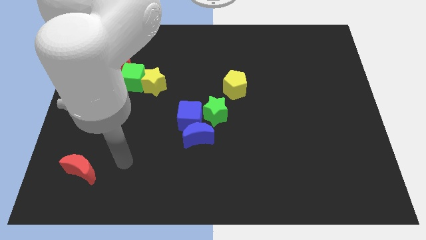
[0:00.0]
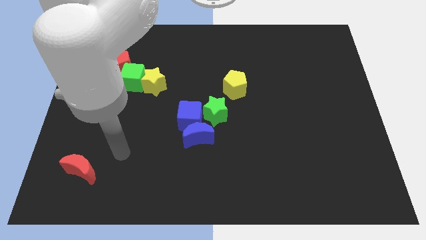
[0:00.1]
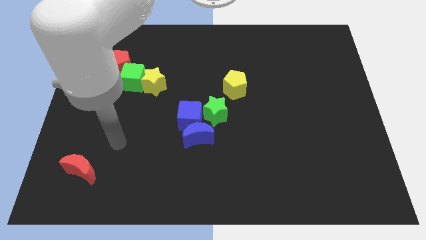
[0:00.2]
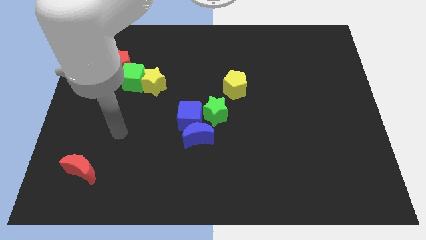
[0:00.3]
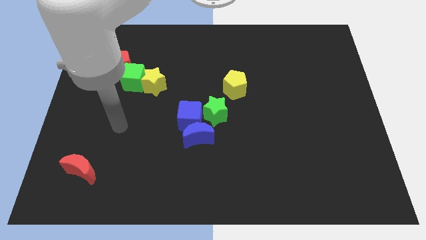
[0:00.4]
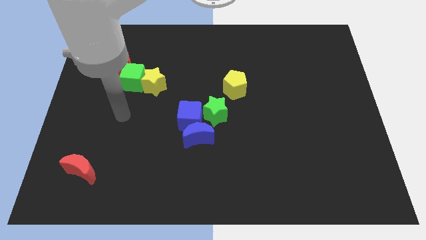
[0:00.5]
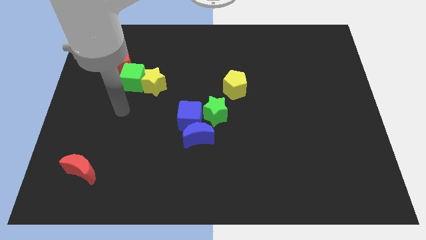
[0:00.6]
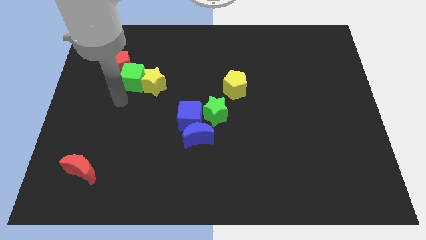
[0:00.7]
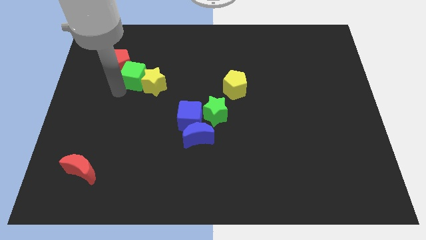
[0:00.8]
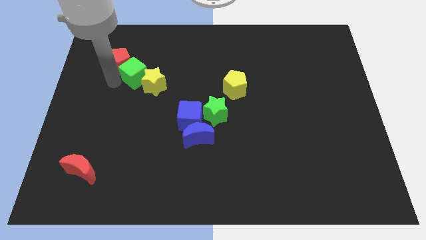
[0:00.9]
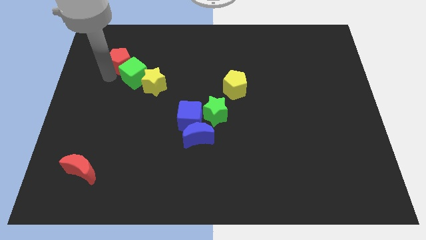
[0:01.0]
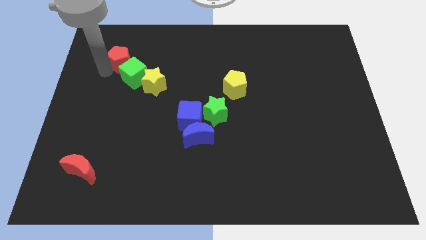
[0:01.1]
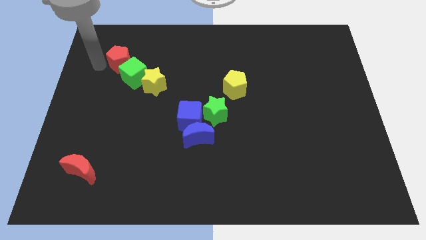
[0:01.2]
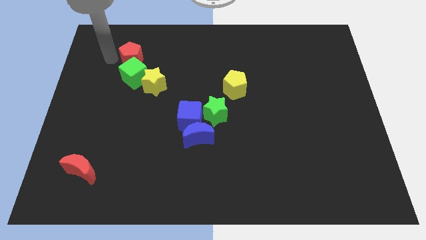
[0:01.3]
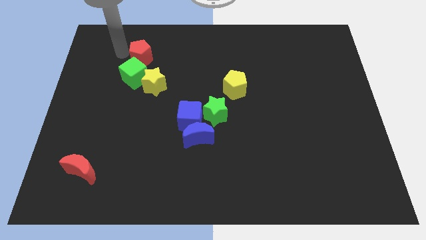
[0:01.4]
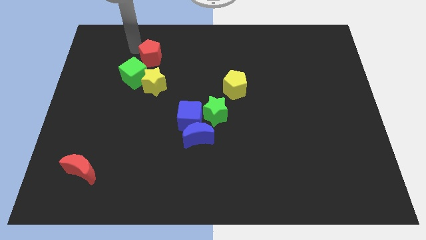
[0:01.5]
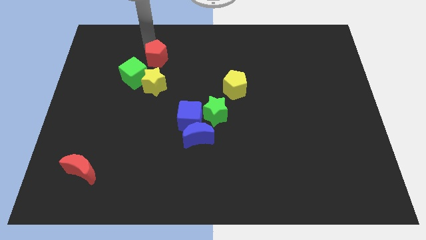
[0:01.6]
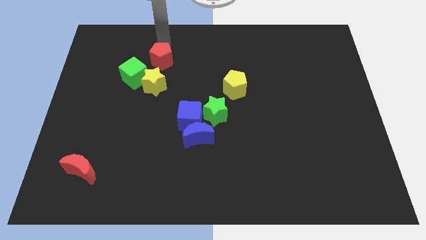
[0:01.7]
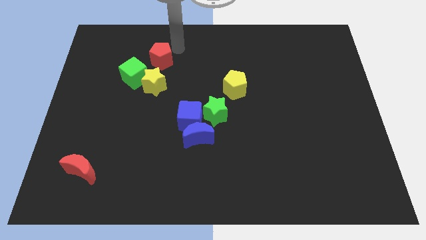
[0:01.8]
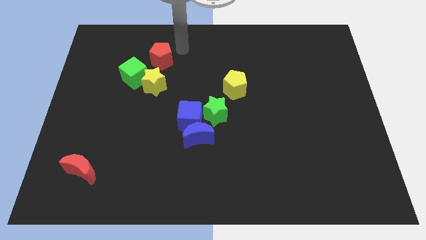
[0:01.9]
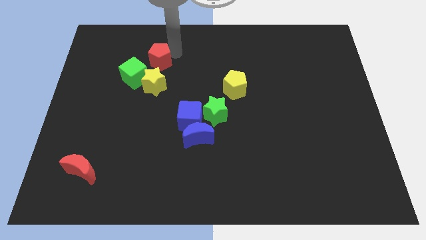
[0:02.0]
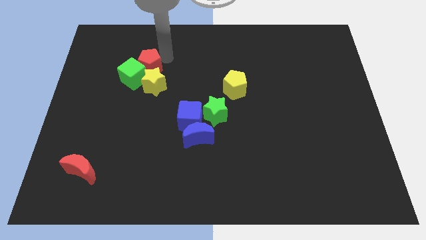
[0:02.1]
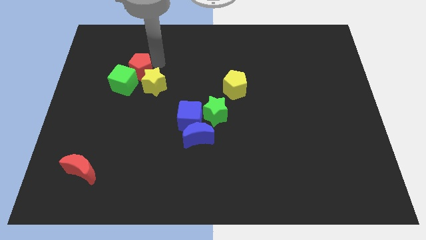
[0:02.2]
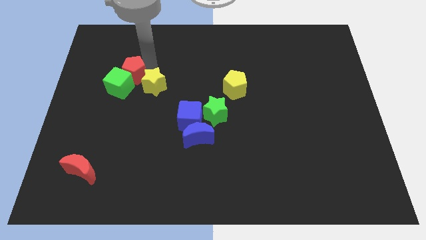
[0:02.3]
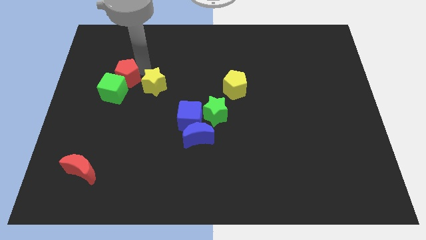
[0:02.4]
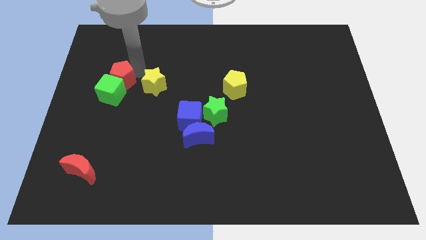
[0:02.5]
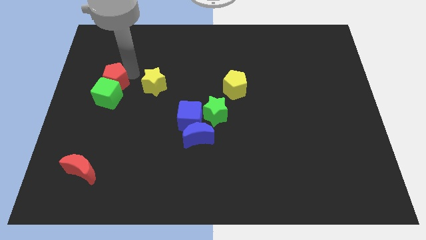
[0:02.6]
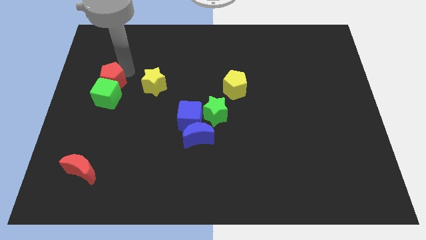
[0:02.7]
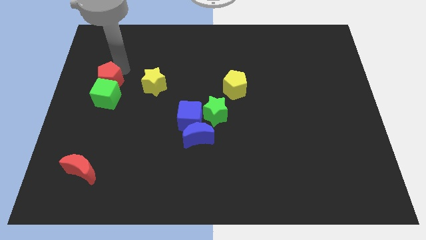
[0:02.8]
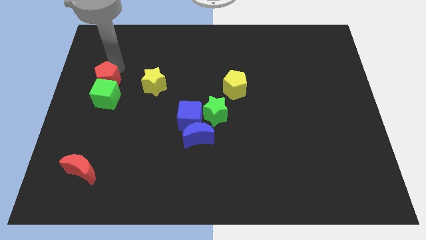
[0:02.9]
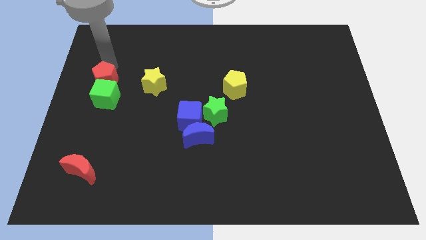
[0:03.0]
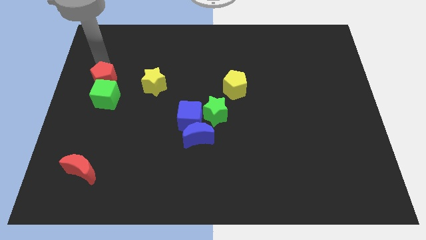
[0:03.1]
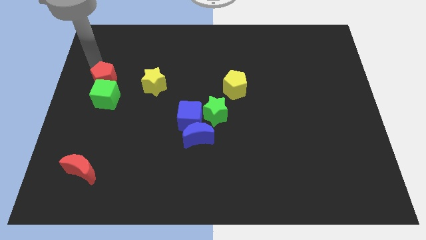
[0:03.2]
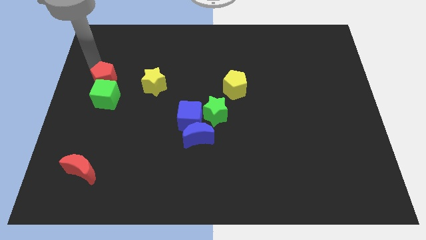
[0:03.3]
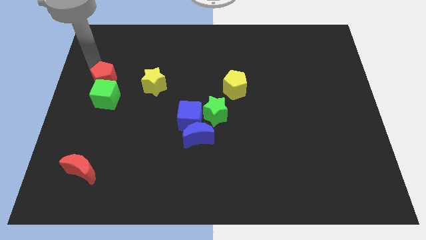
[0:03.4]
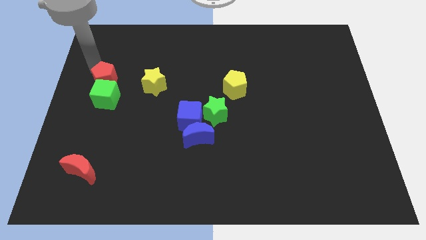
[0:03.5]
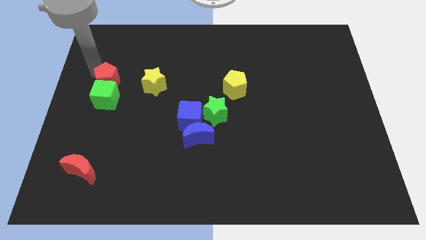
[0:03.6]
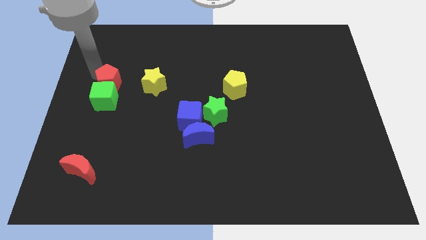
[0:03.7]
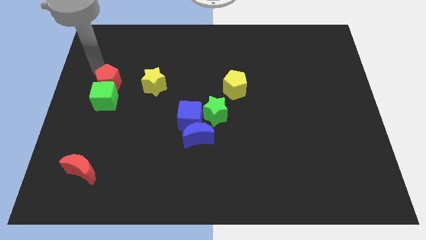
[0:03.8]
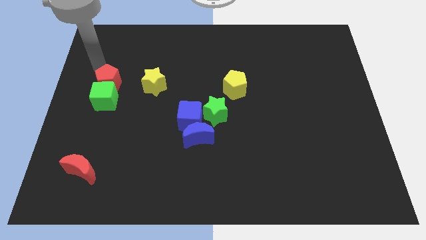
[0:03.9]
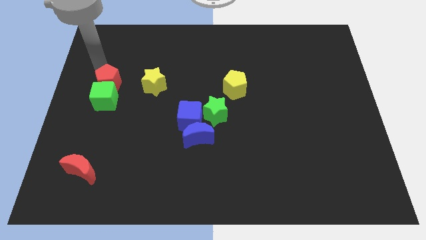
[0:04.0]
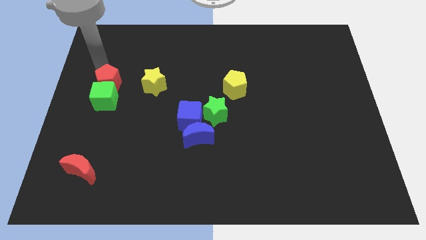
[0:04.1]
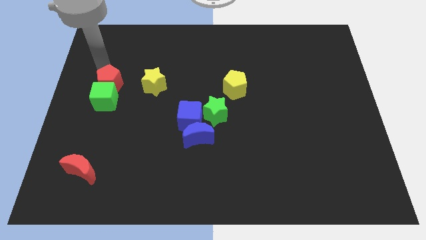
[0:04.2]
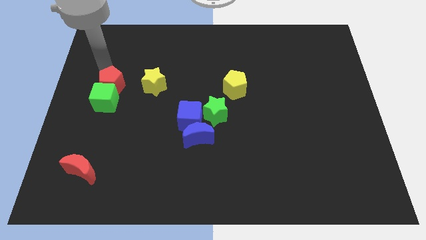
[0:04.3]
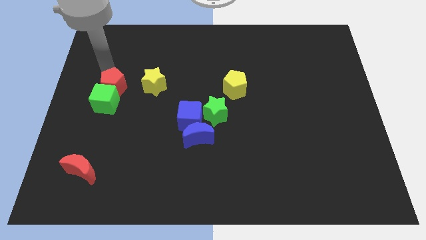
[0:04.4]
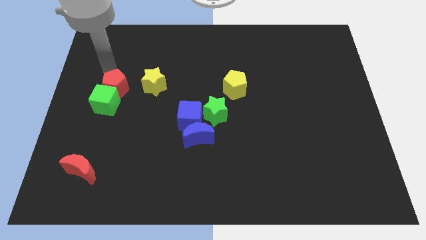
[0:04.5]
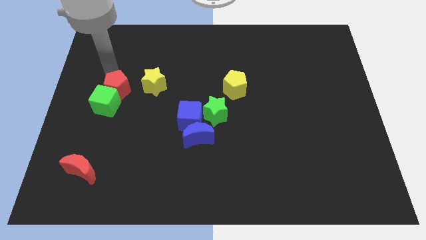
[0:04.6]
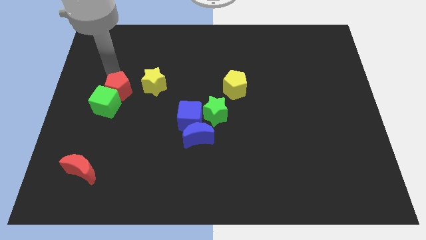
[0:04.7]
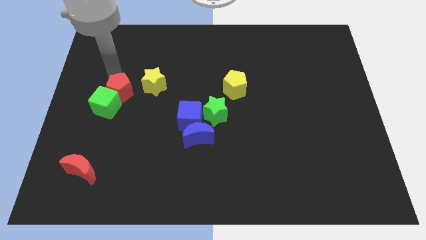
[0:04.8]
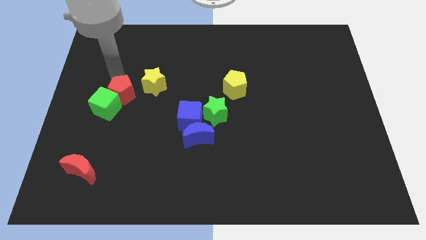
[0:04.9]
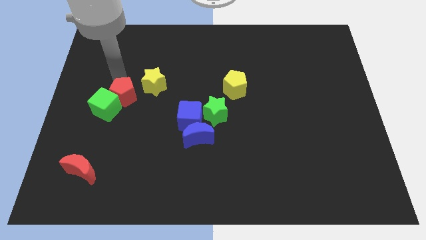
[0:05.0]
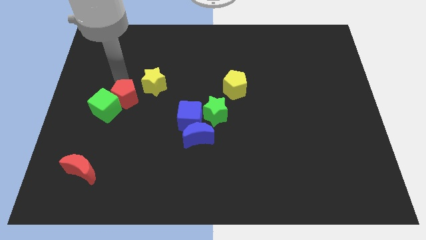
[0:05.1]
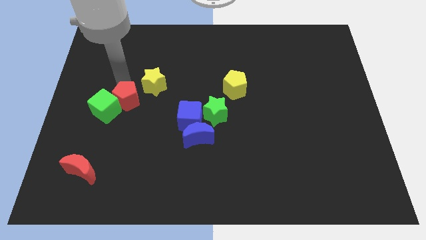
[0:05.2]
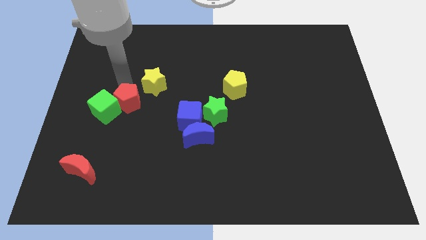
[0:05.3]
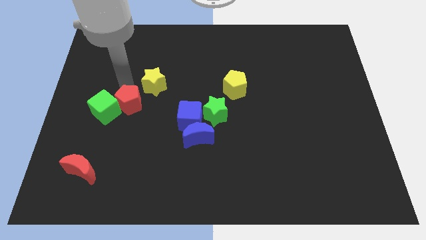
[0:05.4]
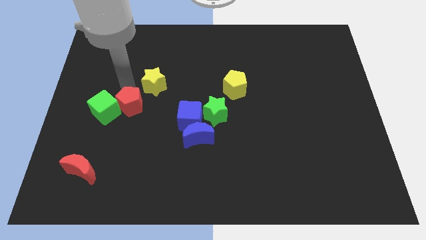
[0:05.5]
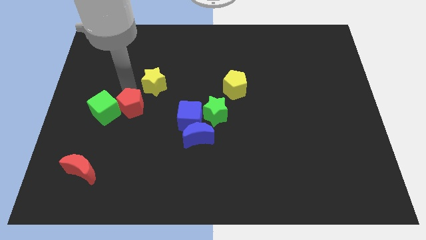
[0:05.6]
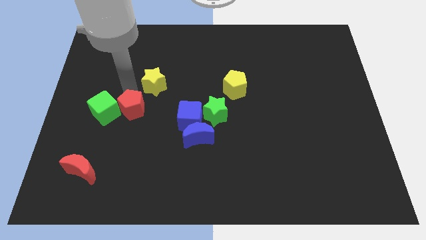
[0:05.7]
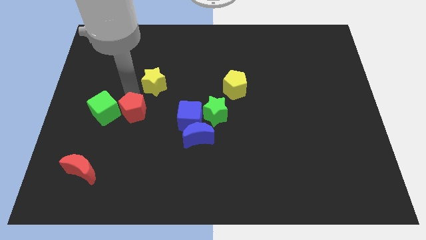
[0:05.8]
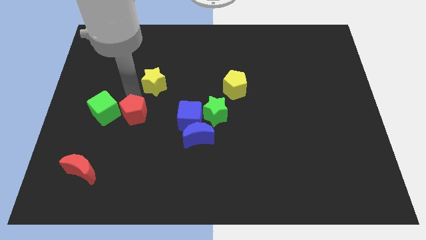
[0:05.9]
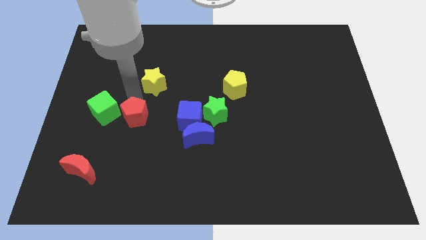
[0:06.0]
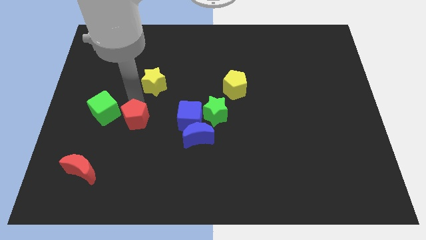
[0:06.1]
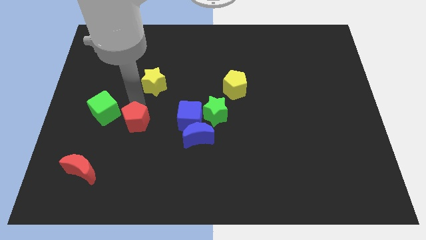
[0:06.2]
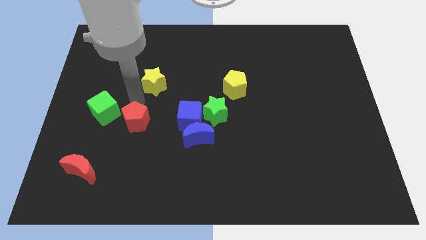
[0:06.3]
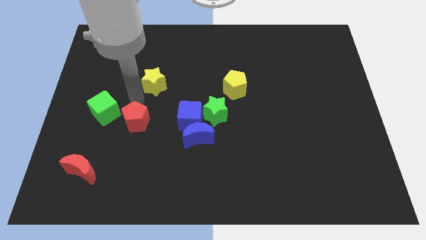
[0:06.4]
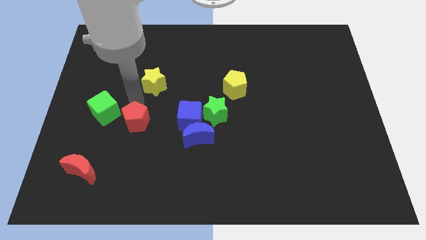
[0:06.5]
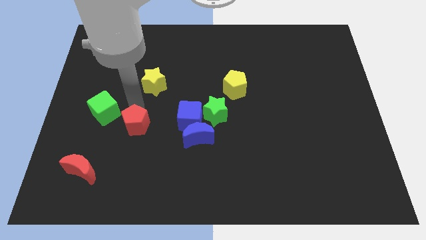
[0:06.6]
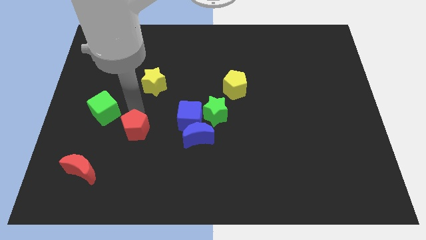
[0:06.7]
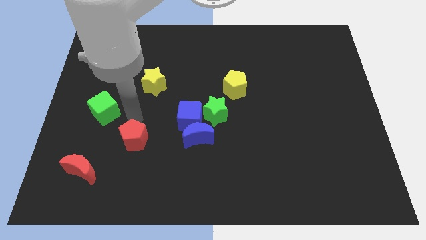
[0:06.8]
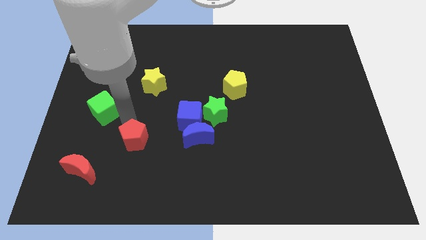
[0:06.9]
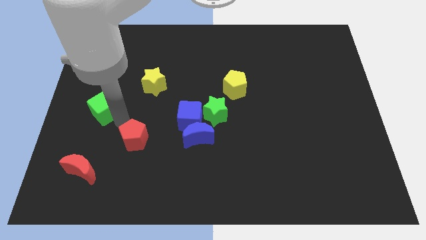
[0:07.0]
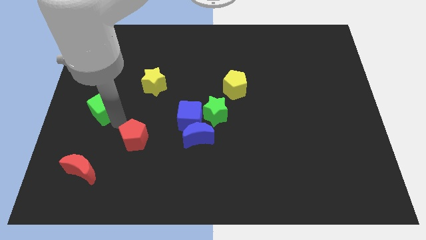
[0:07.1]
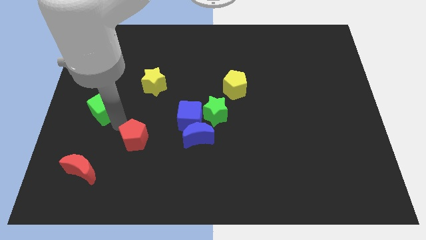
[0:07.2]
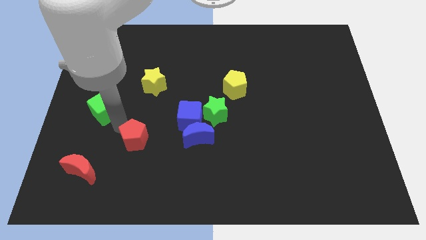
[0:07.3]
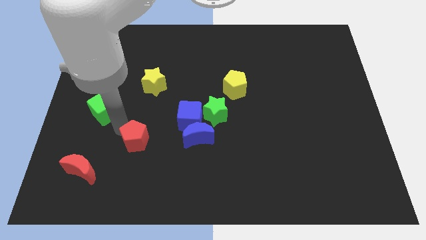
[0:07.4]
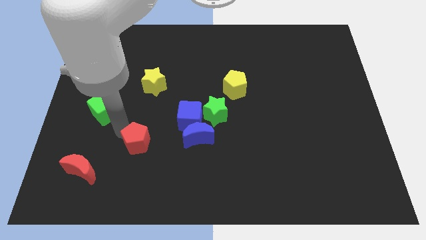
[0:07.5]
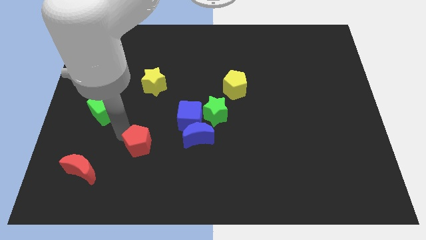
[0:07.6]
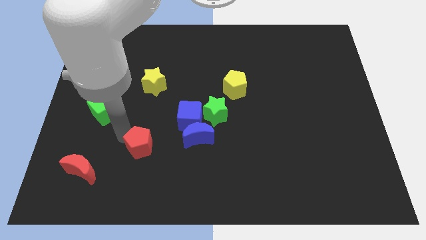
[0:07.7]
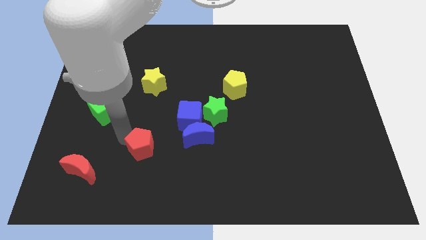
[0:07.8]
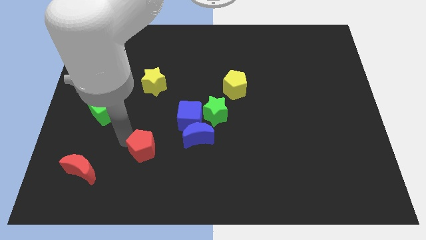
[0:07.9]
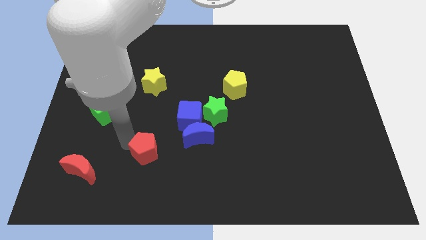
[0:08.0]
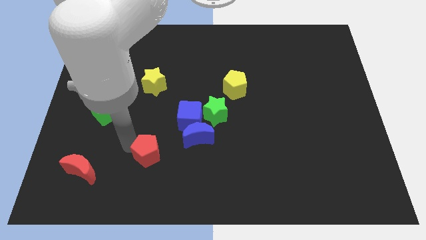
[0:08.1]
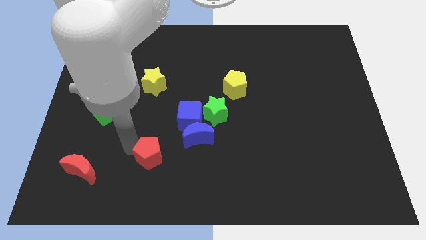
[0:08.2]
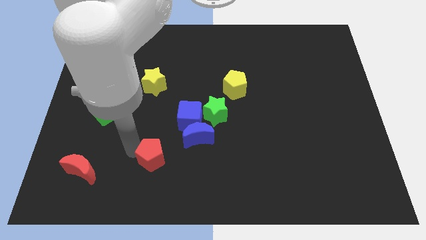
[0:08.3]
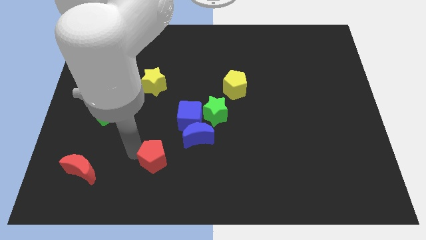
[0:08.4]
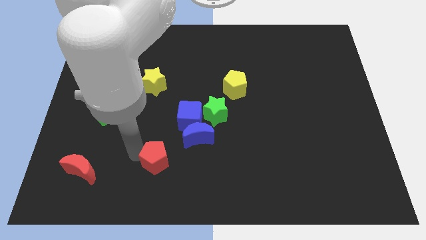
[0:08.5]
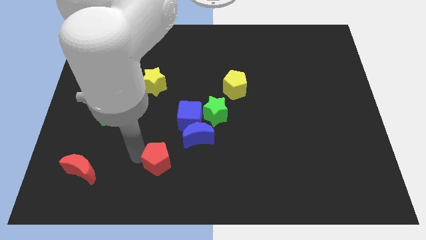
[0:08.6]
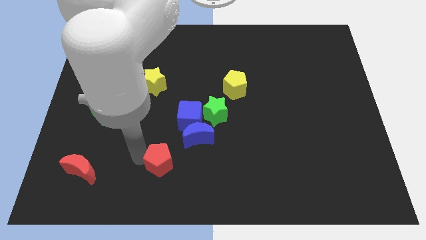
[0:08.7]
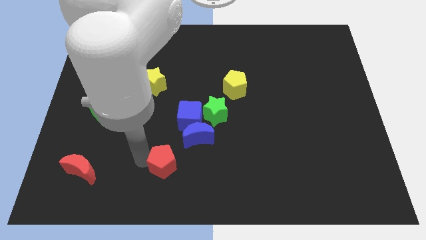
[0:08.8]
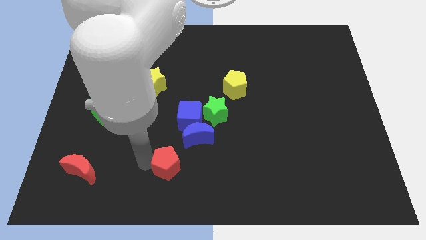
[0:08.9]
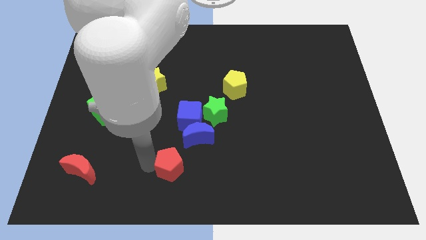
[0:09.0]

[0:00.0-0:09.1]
move the red pentagon to the bottom
